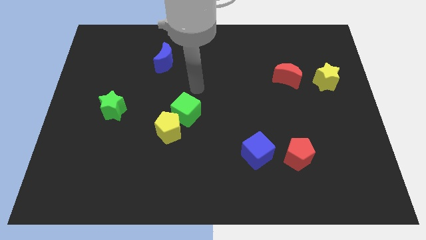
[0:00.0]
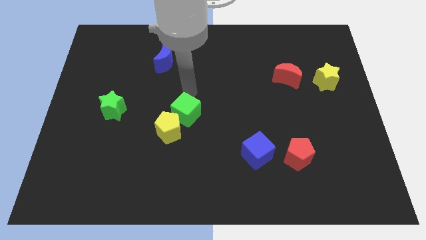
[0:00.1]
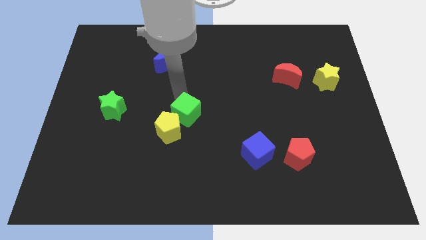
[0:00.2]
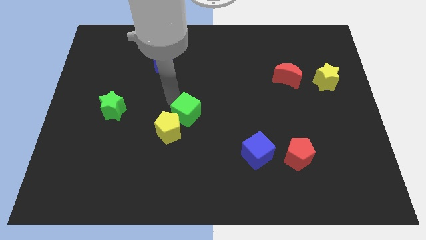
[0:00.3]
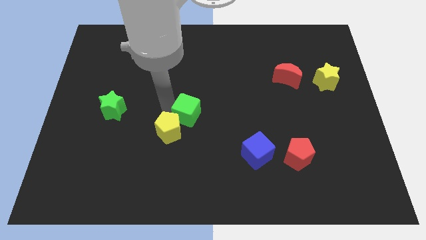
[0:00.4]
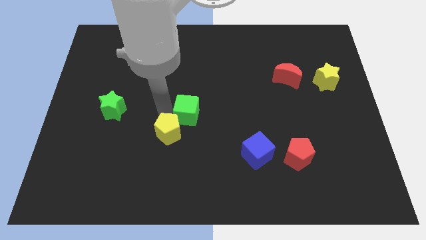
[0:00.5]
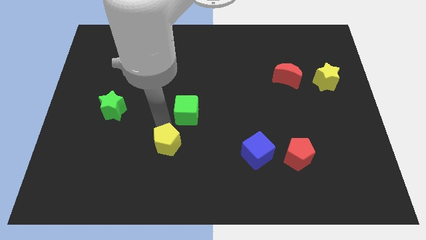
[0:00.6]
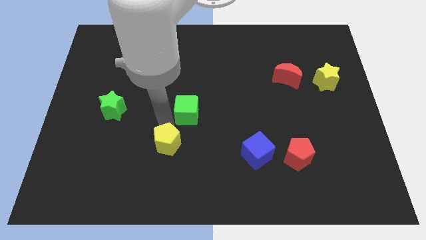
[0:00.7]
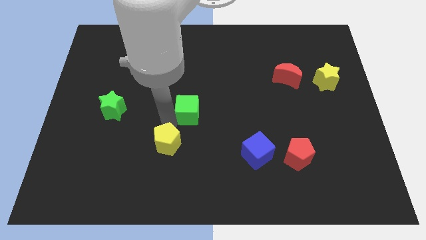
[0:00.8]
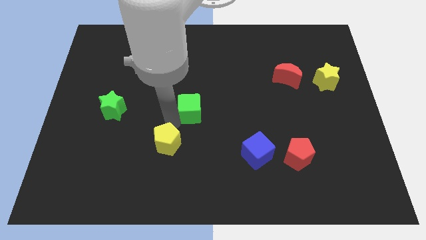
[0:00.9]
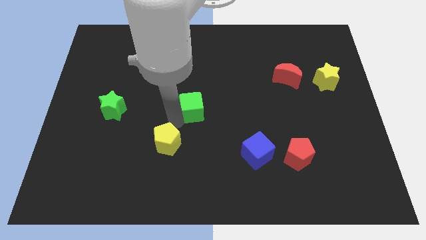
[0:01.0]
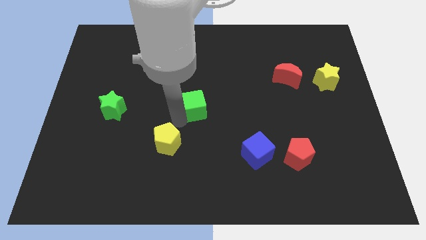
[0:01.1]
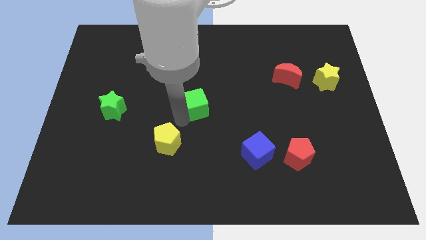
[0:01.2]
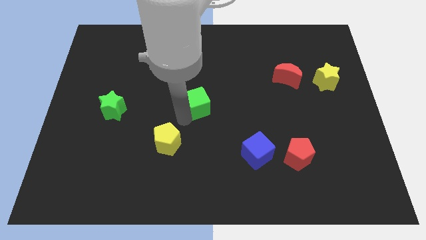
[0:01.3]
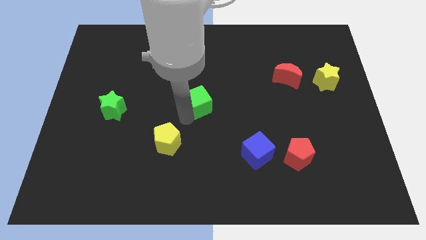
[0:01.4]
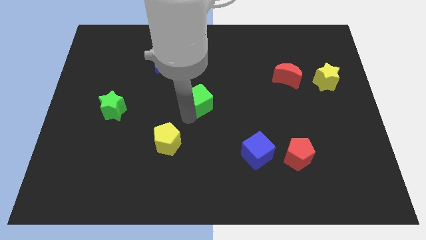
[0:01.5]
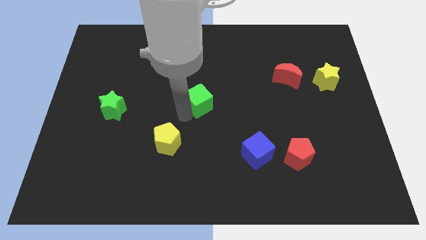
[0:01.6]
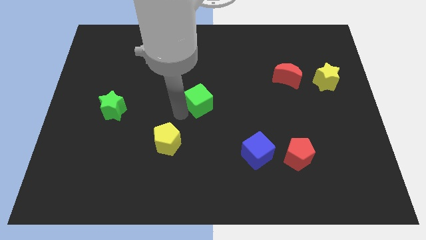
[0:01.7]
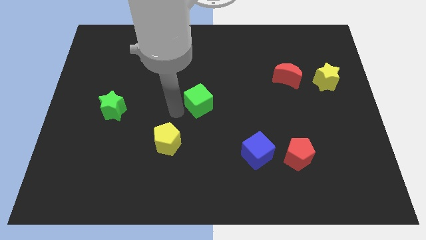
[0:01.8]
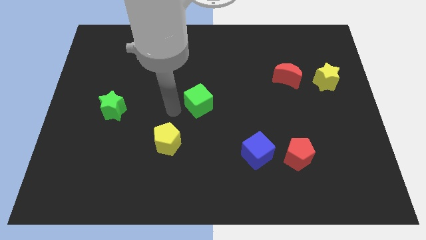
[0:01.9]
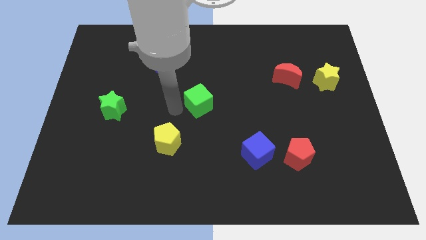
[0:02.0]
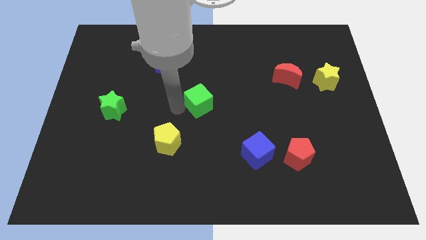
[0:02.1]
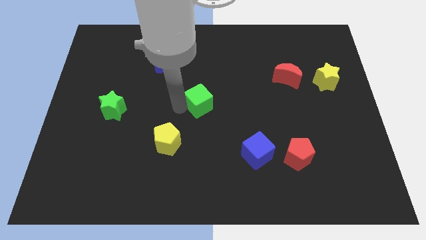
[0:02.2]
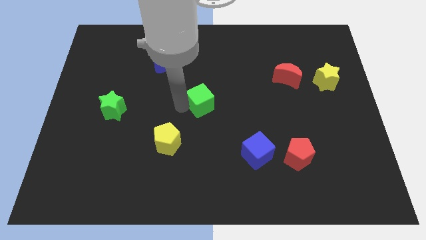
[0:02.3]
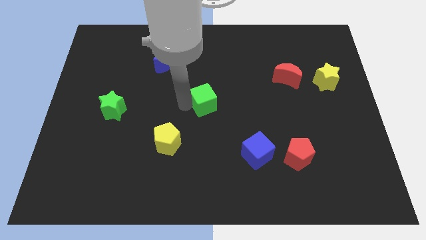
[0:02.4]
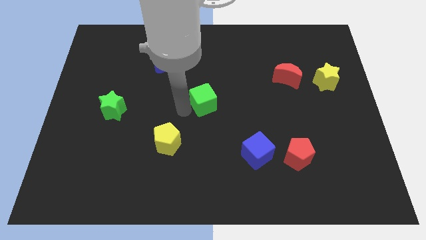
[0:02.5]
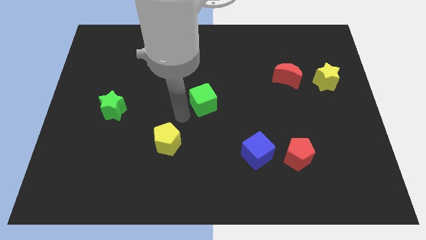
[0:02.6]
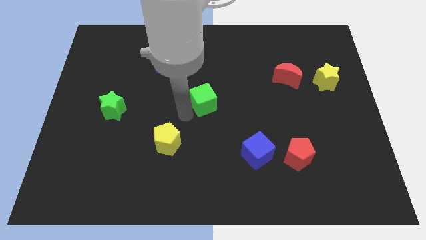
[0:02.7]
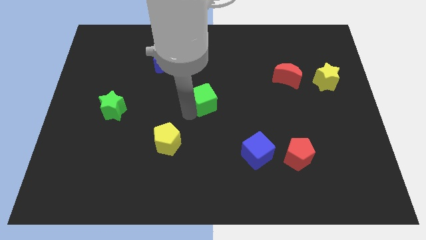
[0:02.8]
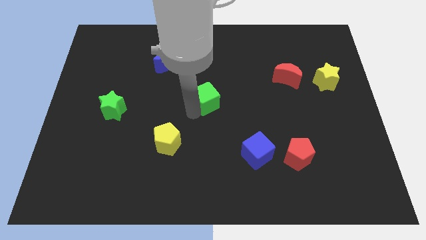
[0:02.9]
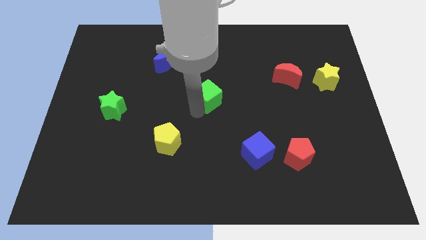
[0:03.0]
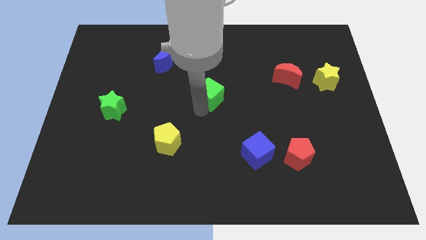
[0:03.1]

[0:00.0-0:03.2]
slightly push the green cube upwards and right

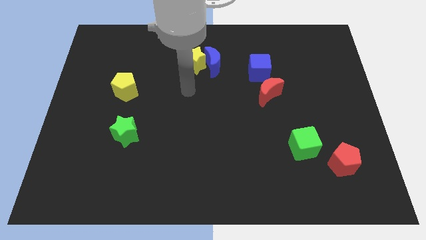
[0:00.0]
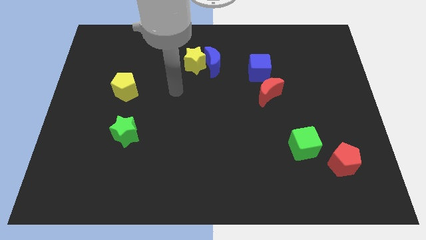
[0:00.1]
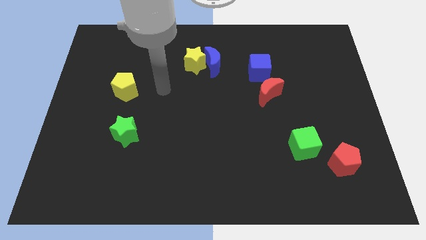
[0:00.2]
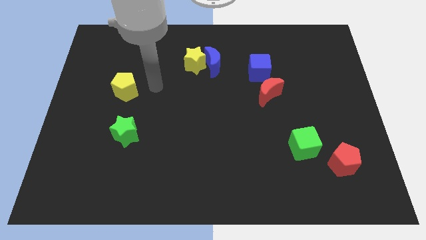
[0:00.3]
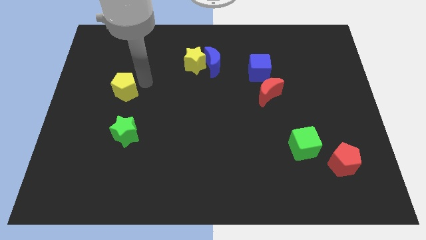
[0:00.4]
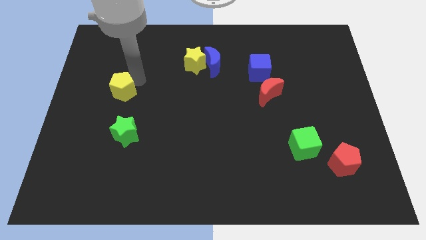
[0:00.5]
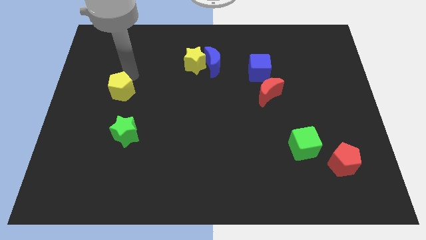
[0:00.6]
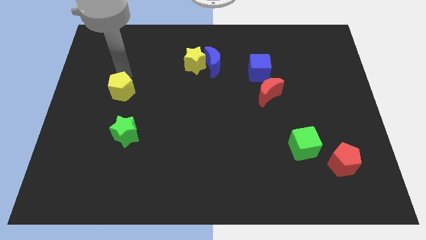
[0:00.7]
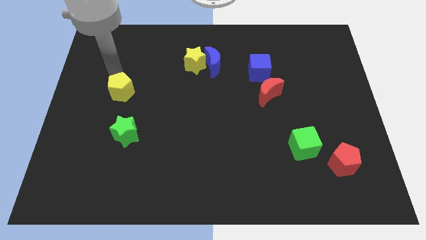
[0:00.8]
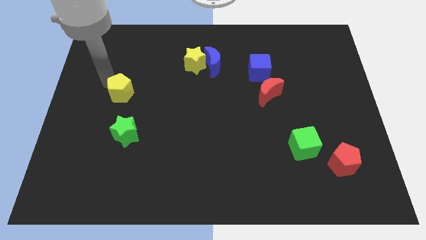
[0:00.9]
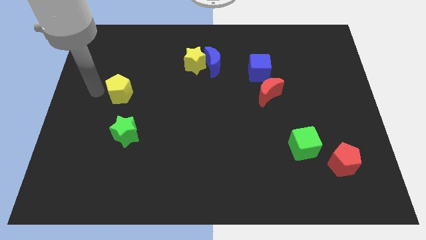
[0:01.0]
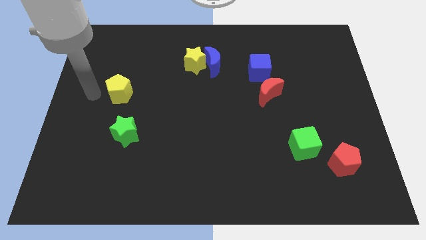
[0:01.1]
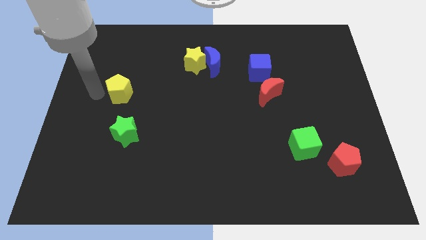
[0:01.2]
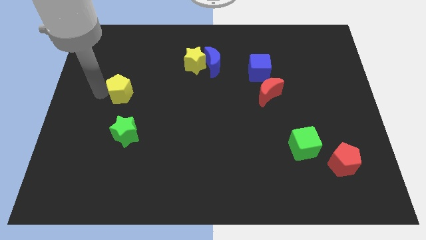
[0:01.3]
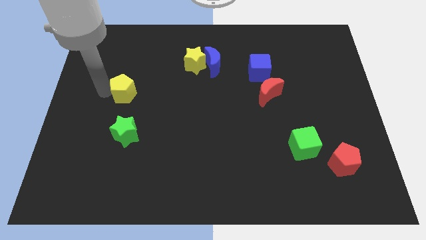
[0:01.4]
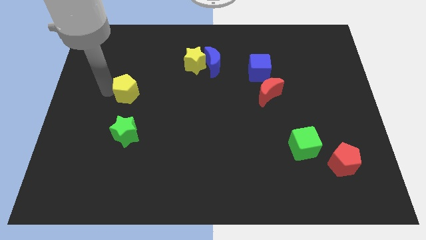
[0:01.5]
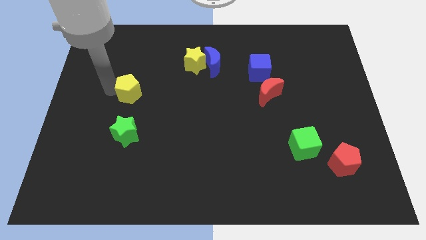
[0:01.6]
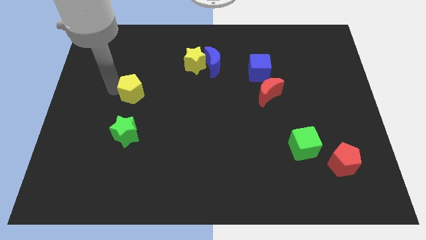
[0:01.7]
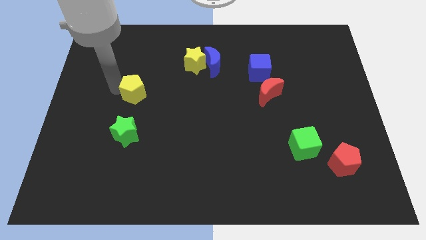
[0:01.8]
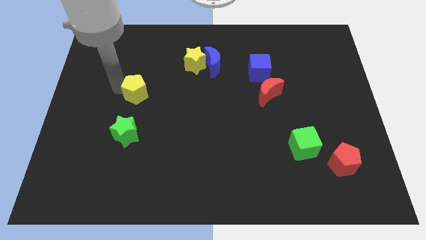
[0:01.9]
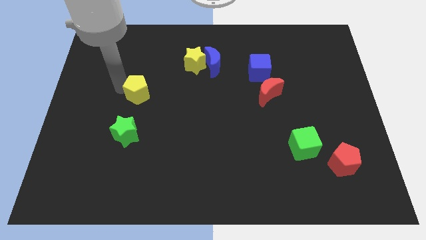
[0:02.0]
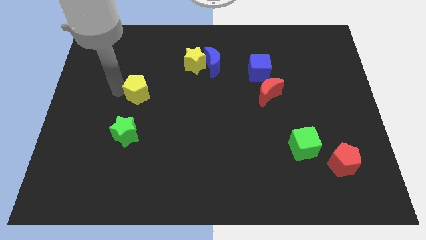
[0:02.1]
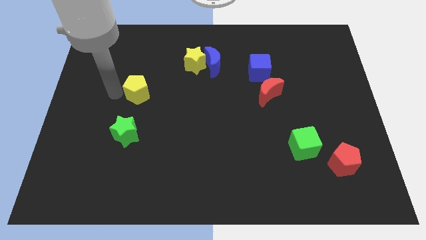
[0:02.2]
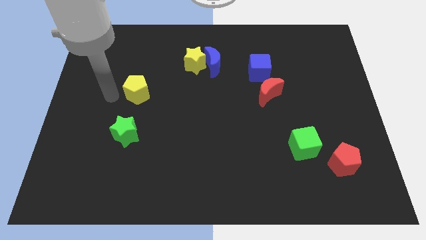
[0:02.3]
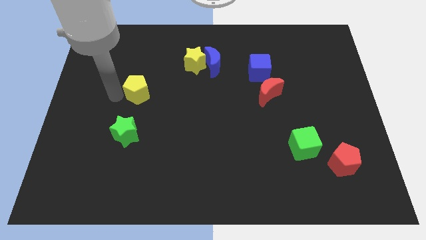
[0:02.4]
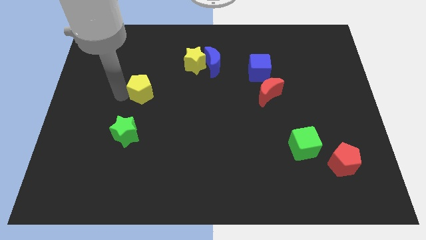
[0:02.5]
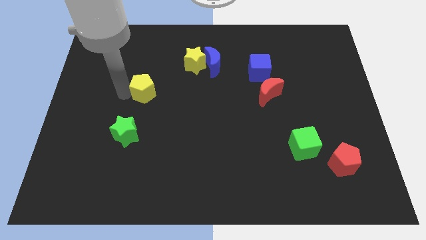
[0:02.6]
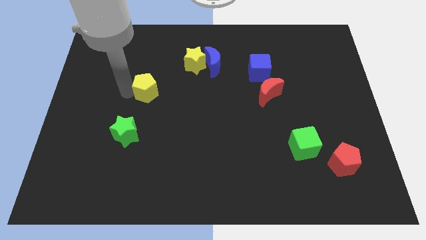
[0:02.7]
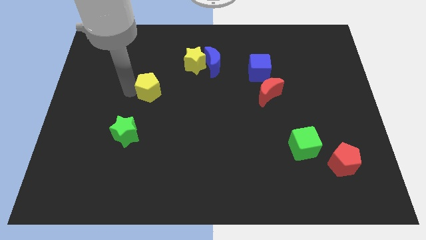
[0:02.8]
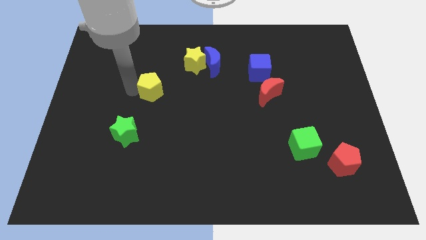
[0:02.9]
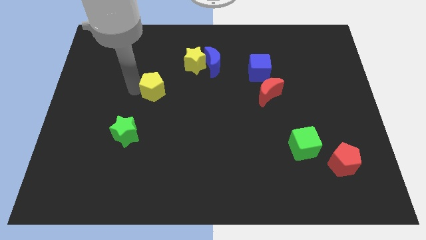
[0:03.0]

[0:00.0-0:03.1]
slightly move the yellow pentagon to the right

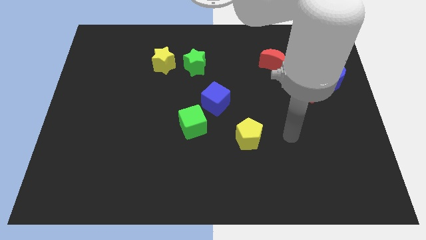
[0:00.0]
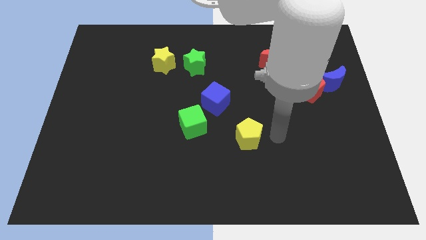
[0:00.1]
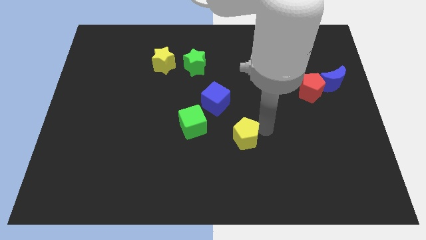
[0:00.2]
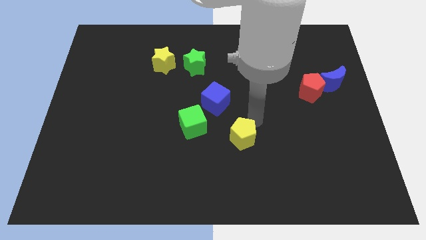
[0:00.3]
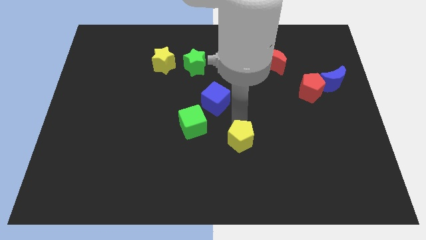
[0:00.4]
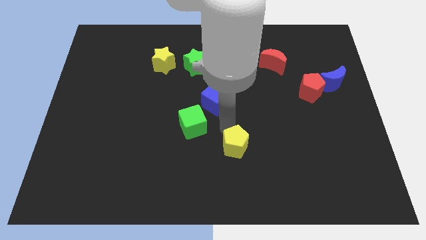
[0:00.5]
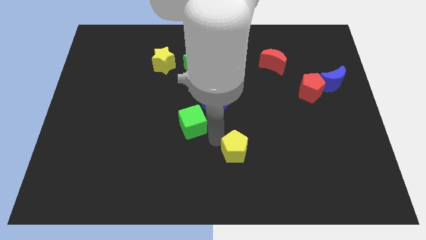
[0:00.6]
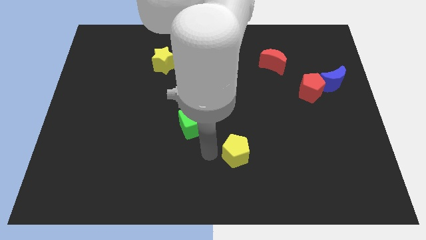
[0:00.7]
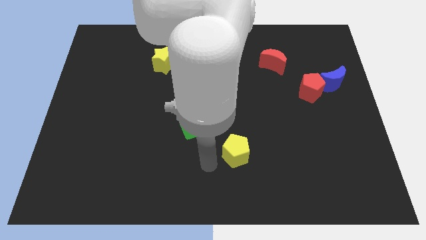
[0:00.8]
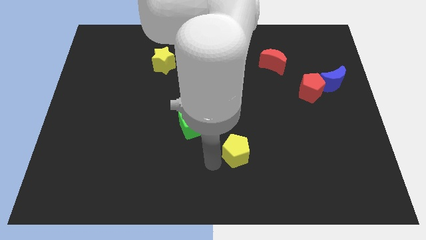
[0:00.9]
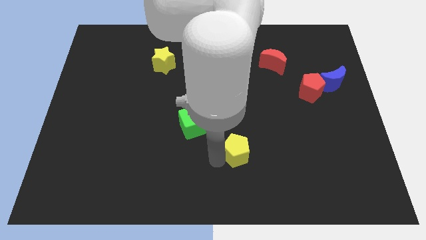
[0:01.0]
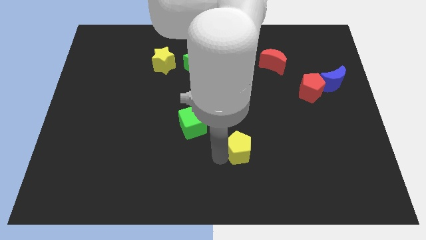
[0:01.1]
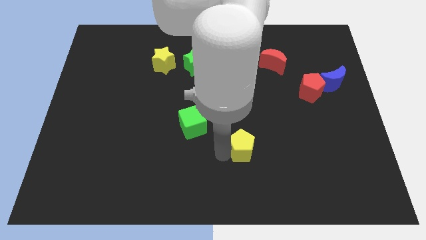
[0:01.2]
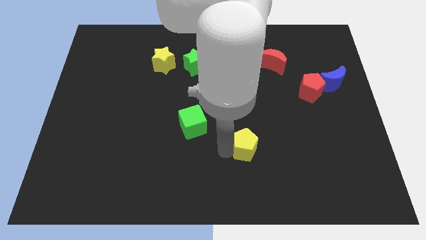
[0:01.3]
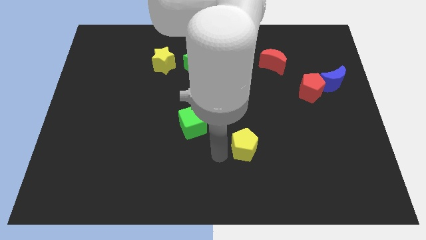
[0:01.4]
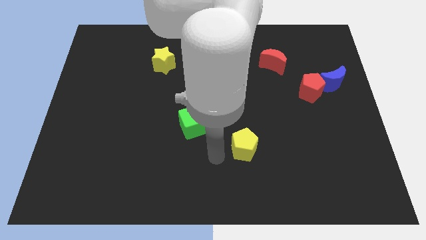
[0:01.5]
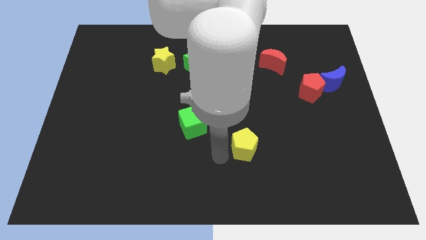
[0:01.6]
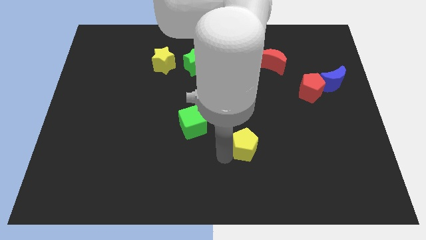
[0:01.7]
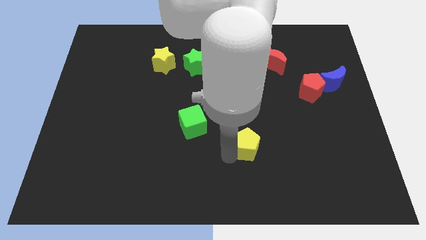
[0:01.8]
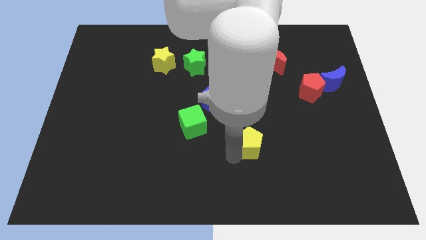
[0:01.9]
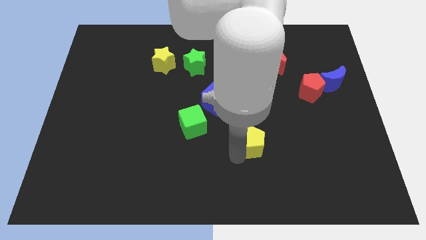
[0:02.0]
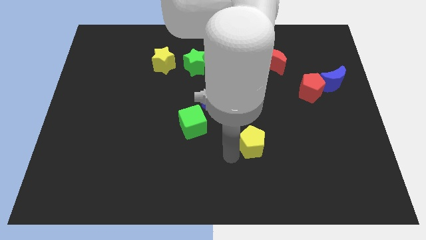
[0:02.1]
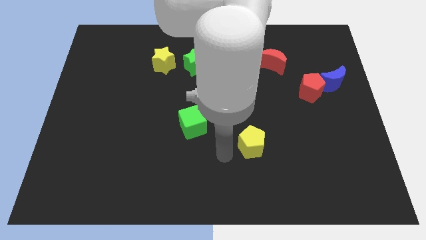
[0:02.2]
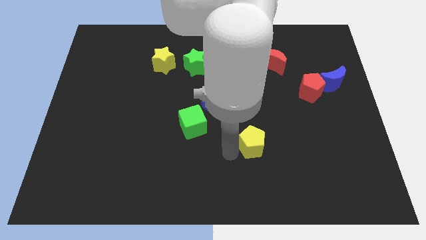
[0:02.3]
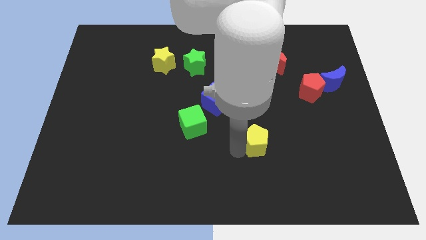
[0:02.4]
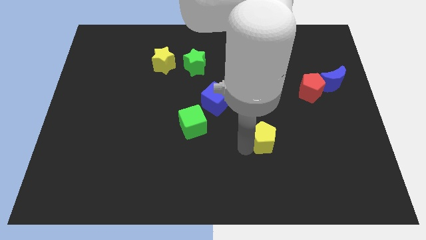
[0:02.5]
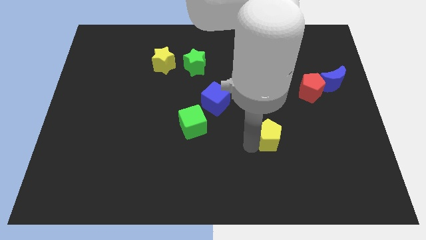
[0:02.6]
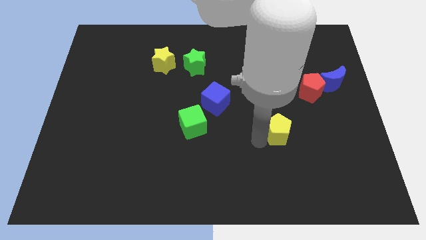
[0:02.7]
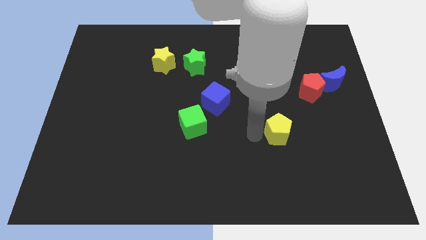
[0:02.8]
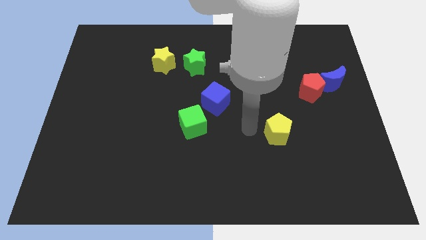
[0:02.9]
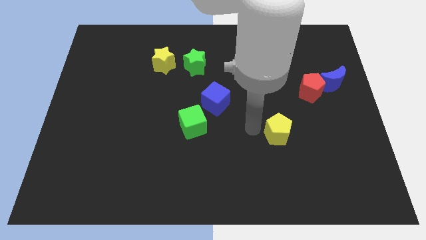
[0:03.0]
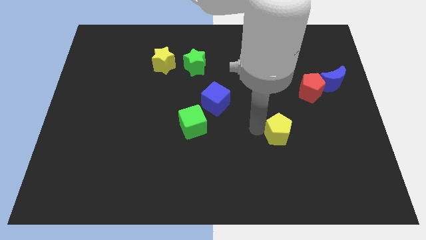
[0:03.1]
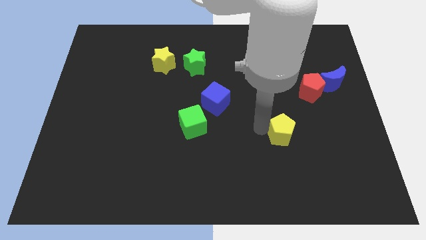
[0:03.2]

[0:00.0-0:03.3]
move the yellow pentagon right somewhat
